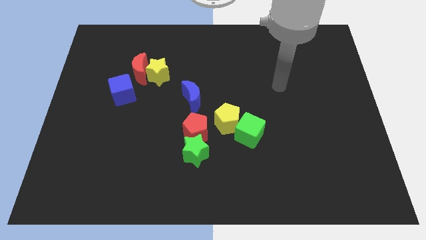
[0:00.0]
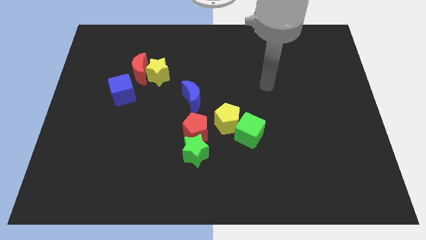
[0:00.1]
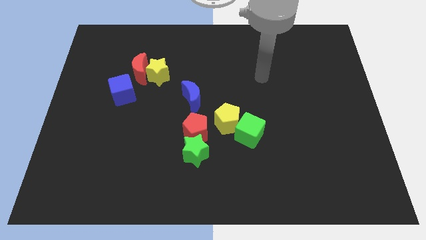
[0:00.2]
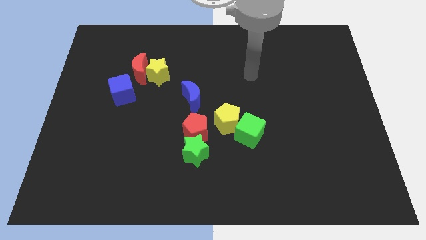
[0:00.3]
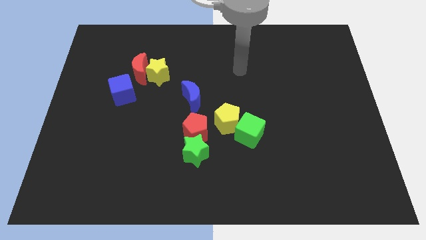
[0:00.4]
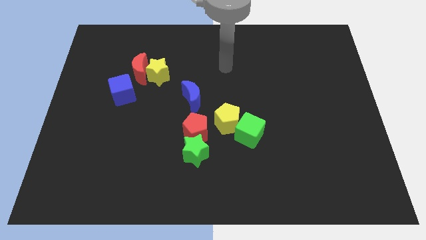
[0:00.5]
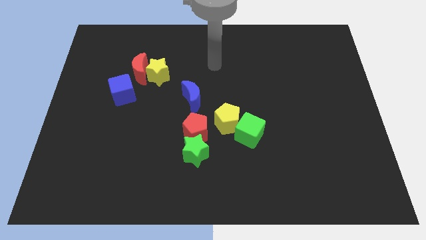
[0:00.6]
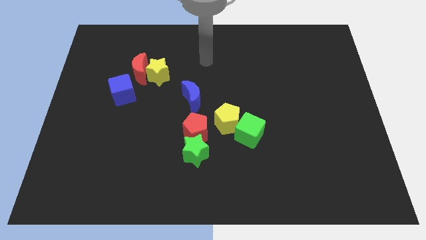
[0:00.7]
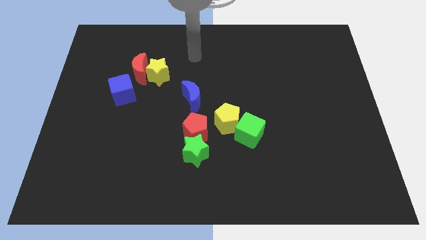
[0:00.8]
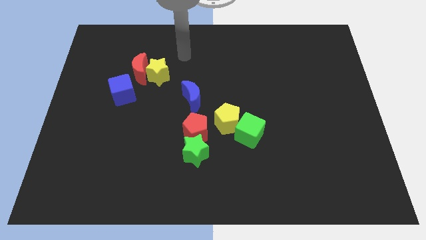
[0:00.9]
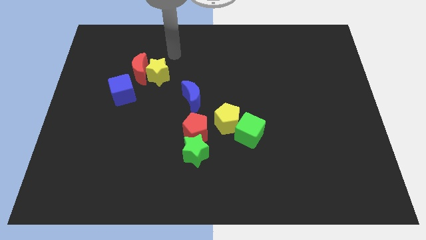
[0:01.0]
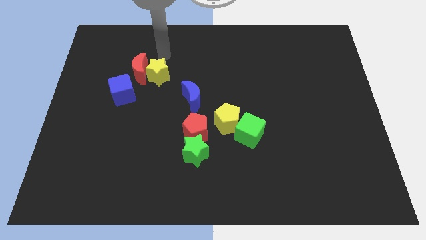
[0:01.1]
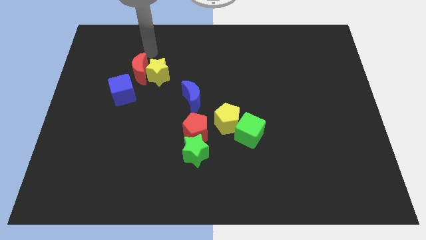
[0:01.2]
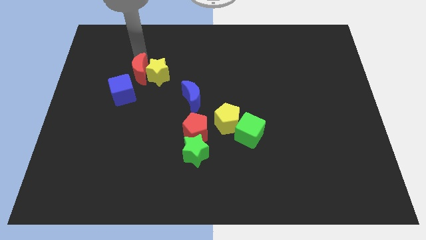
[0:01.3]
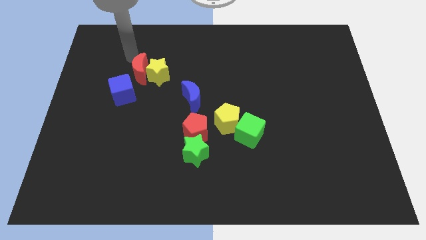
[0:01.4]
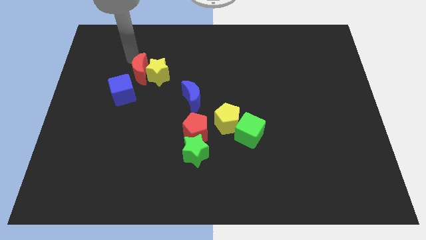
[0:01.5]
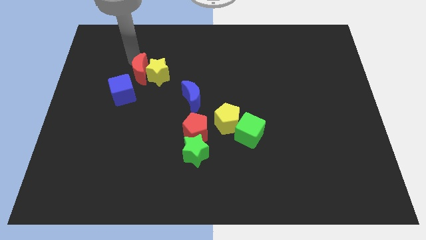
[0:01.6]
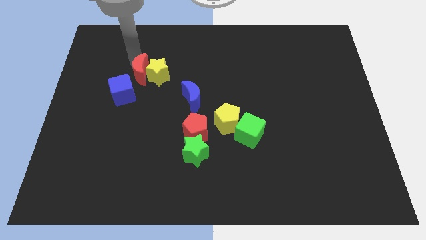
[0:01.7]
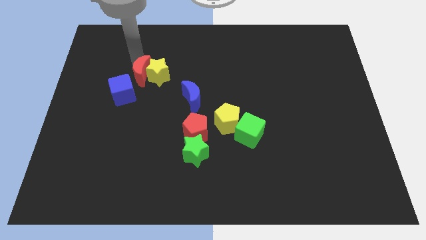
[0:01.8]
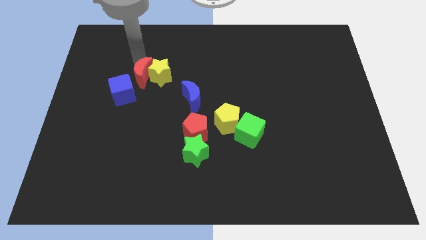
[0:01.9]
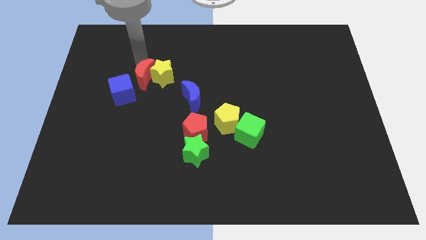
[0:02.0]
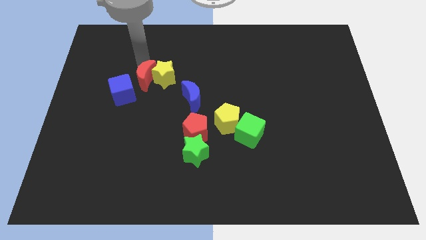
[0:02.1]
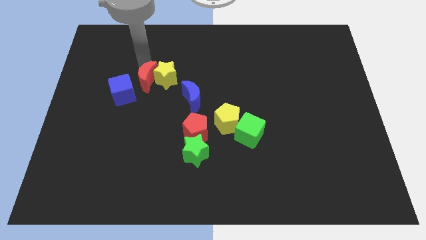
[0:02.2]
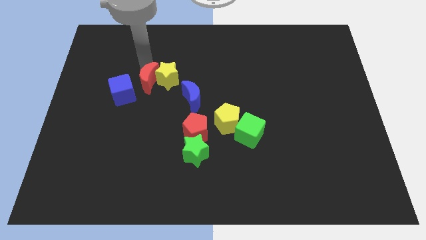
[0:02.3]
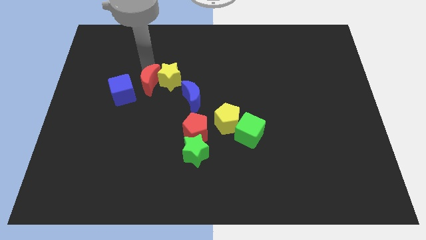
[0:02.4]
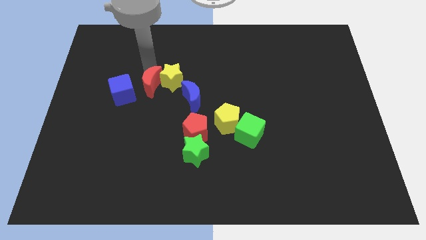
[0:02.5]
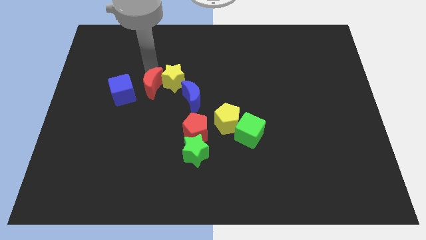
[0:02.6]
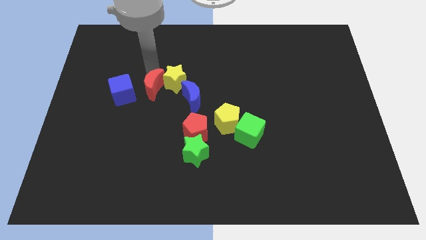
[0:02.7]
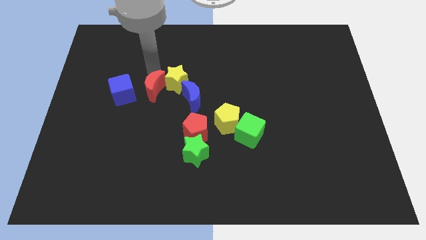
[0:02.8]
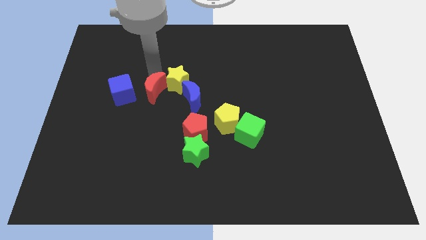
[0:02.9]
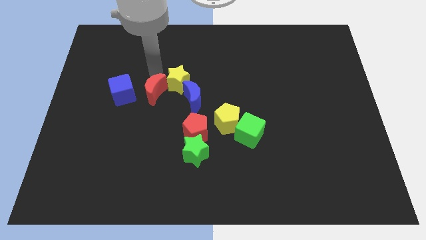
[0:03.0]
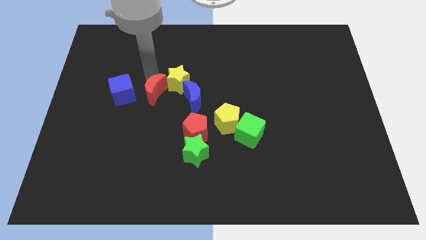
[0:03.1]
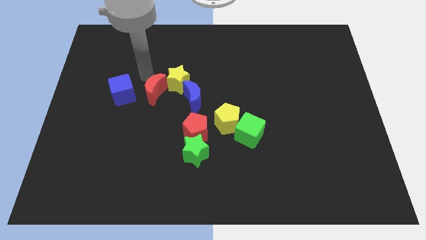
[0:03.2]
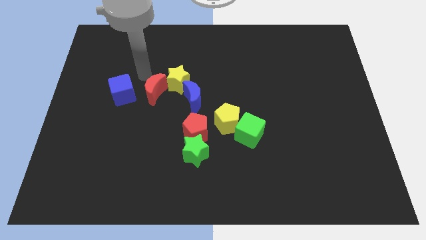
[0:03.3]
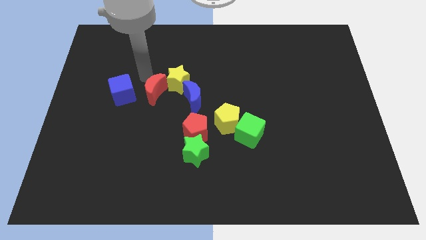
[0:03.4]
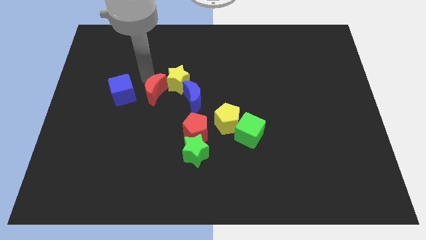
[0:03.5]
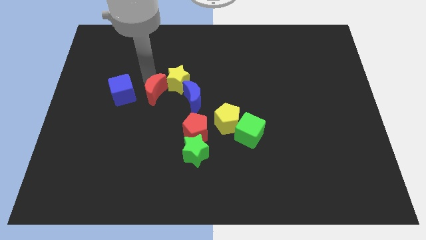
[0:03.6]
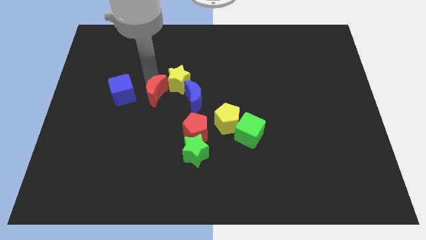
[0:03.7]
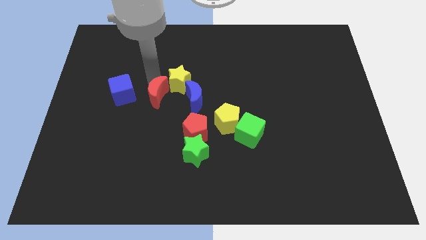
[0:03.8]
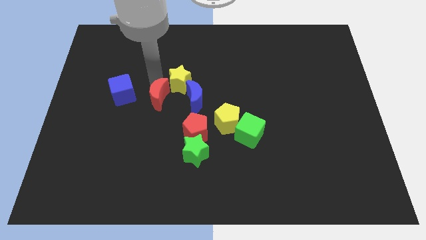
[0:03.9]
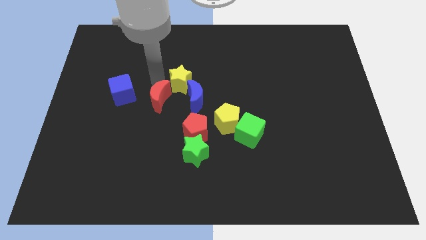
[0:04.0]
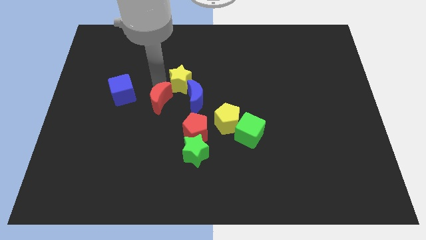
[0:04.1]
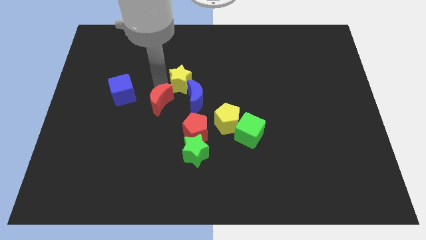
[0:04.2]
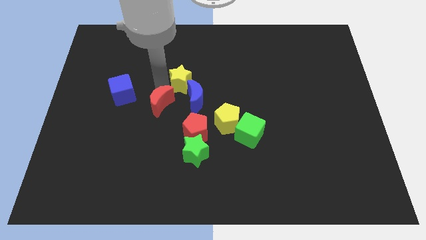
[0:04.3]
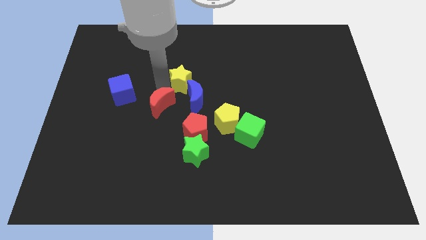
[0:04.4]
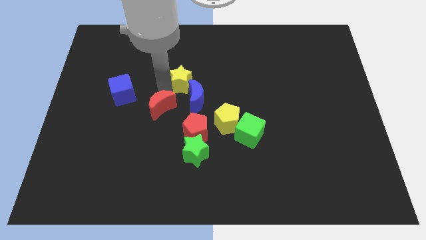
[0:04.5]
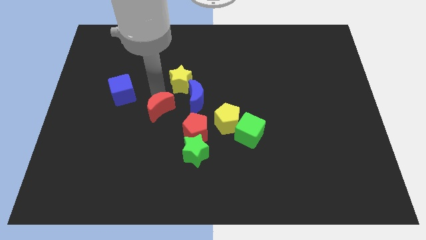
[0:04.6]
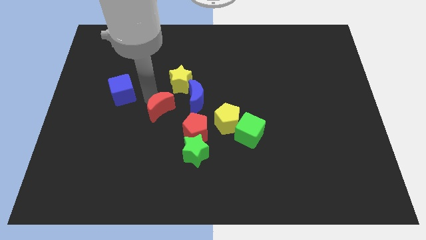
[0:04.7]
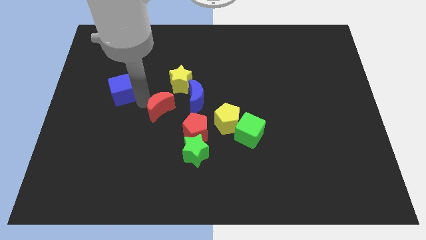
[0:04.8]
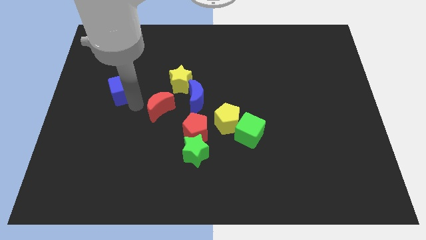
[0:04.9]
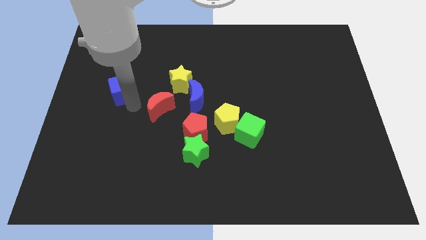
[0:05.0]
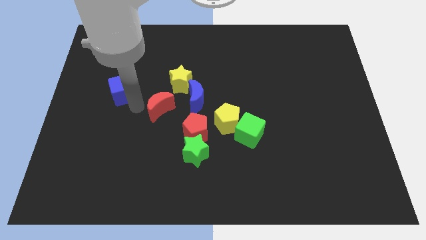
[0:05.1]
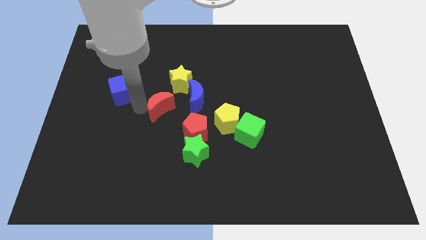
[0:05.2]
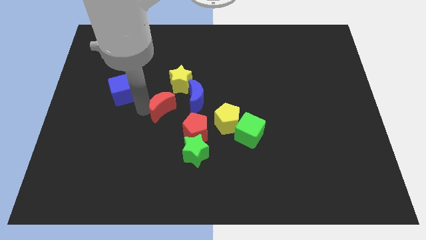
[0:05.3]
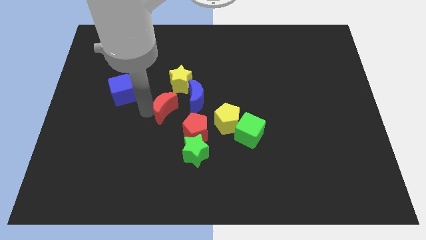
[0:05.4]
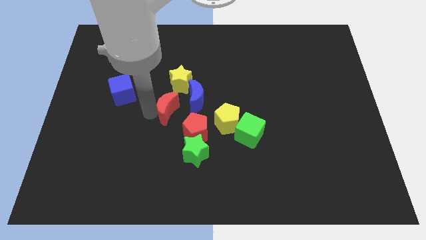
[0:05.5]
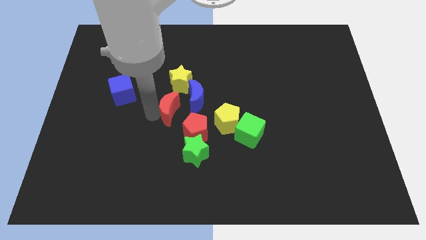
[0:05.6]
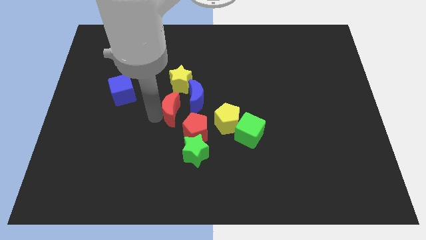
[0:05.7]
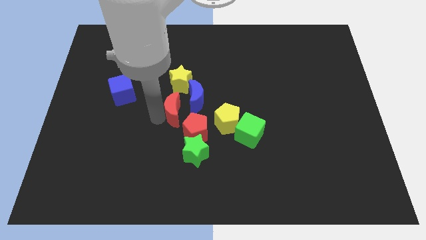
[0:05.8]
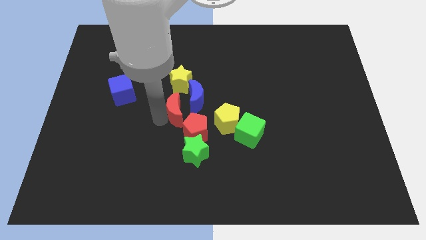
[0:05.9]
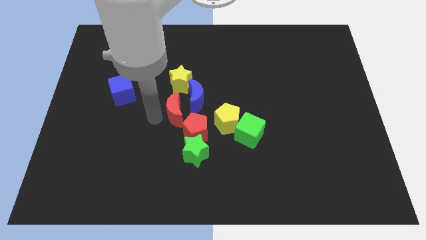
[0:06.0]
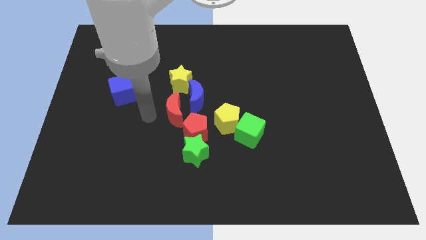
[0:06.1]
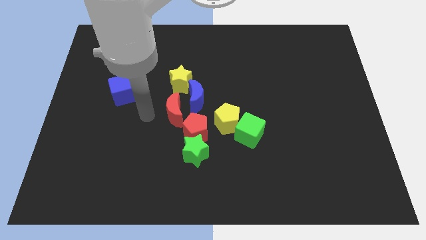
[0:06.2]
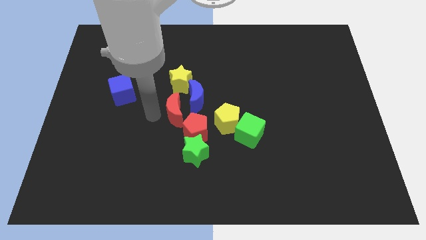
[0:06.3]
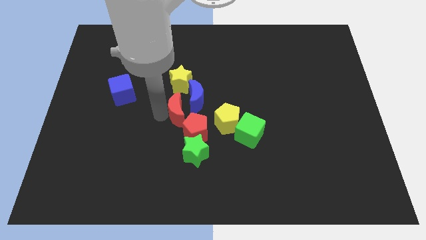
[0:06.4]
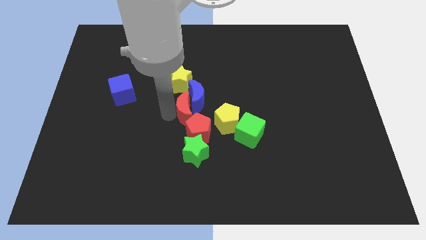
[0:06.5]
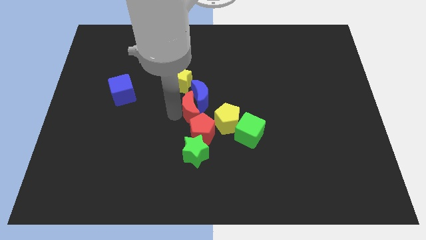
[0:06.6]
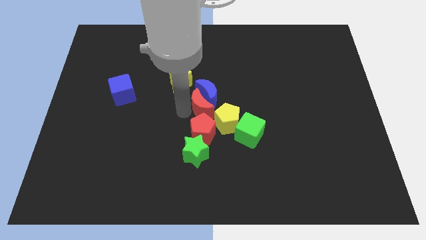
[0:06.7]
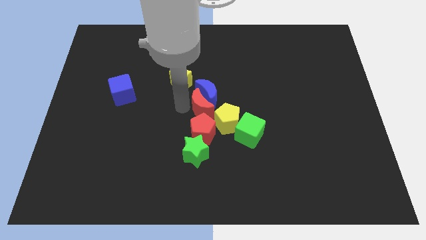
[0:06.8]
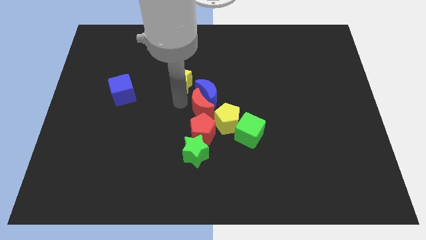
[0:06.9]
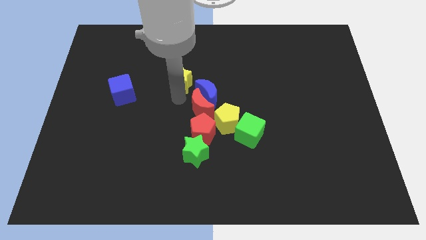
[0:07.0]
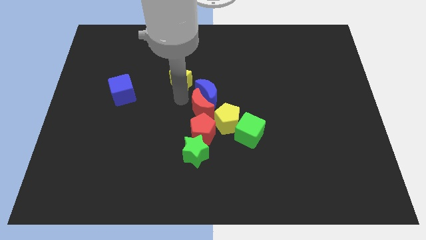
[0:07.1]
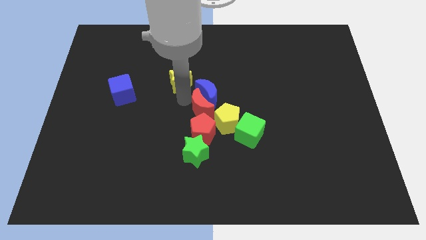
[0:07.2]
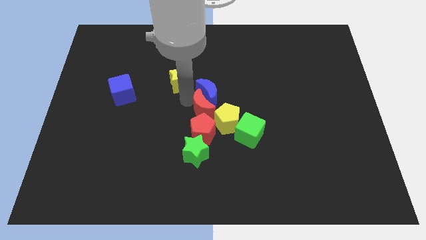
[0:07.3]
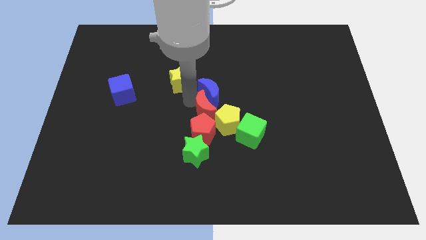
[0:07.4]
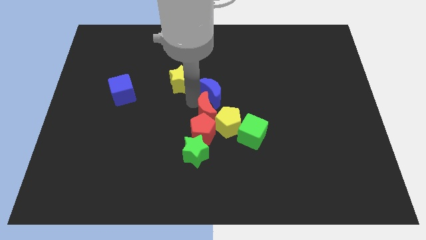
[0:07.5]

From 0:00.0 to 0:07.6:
push the red moon next to the yellow pentagon

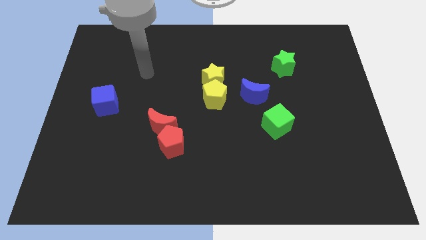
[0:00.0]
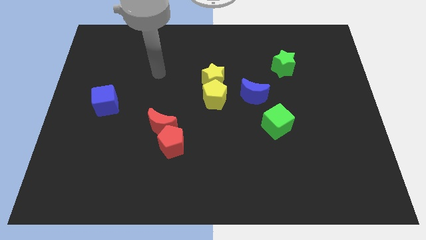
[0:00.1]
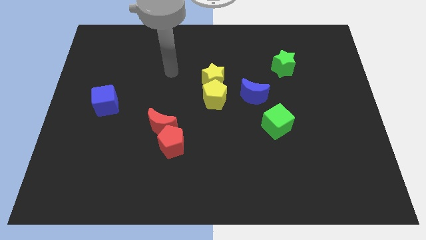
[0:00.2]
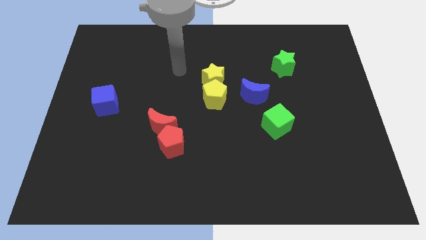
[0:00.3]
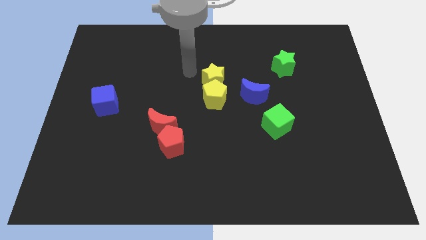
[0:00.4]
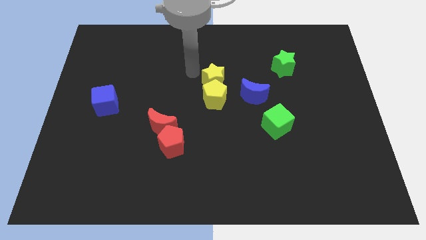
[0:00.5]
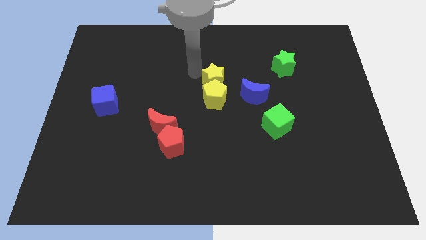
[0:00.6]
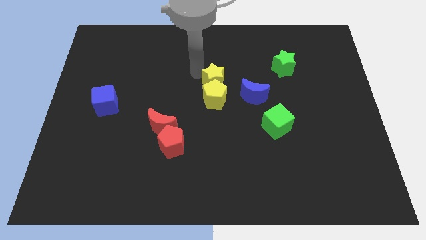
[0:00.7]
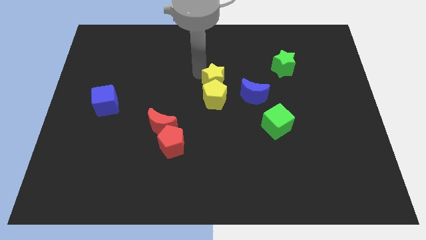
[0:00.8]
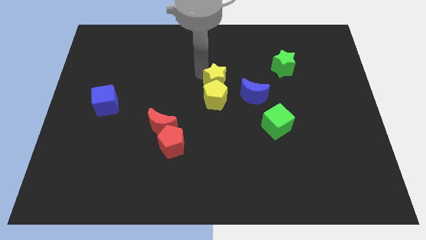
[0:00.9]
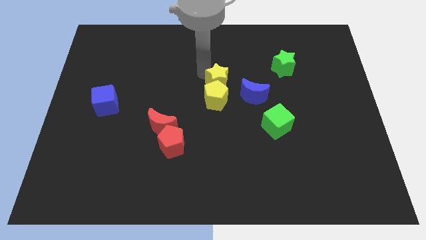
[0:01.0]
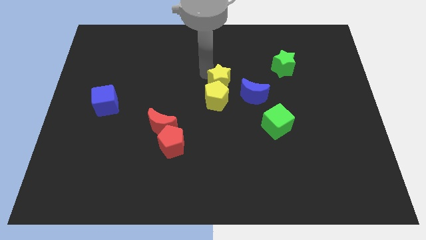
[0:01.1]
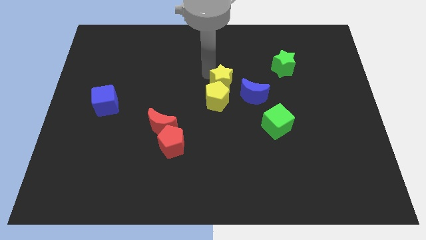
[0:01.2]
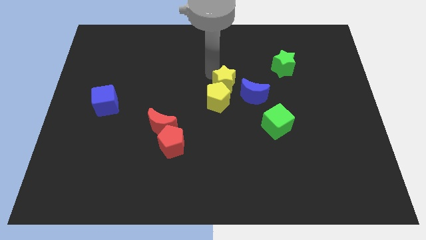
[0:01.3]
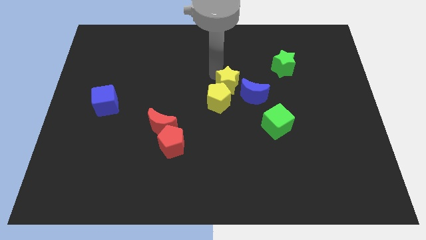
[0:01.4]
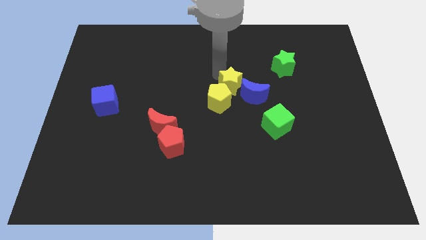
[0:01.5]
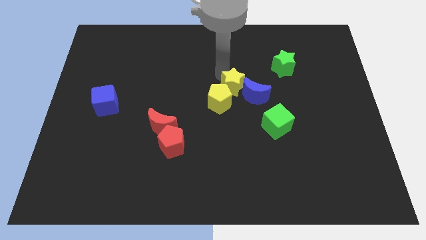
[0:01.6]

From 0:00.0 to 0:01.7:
push the yellow star towards the blue moon
